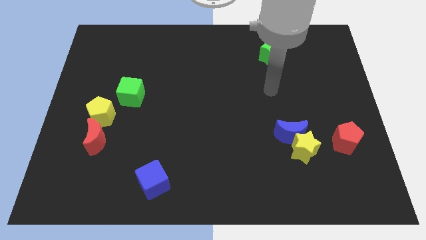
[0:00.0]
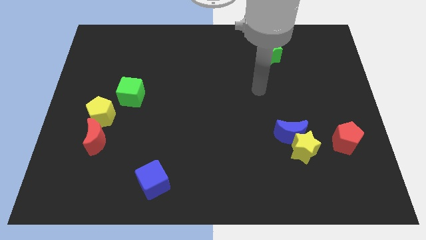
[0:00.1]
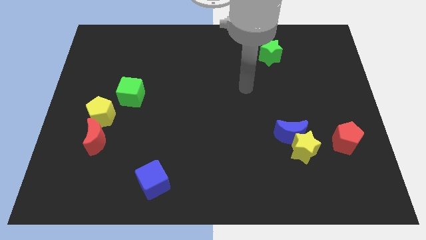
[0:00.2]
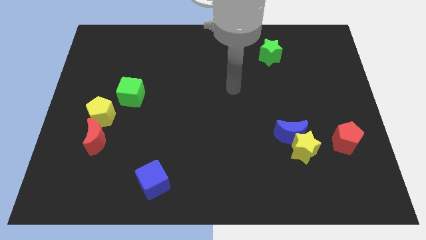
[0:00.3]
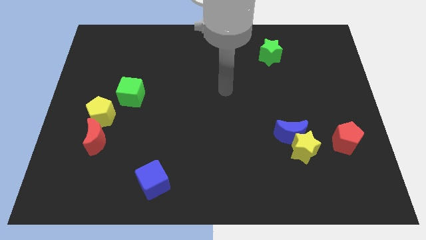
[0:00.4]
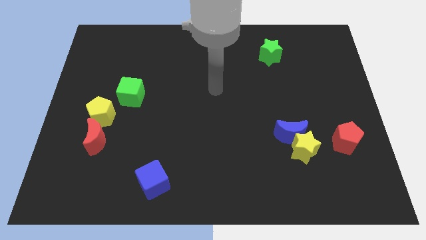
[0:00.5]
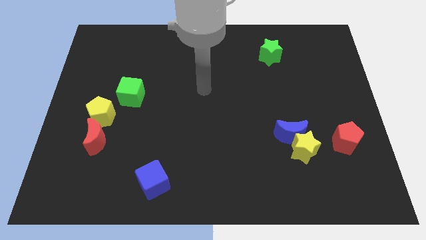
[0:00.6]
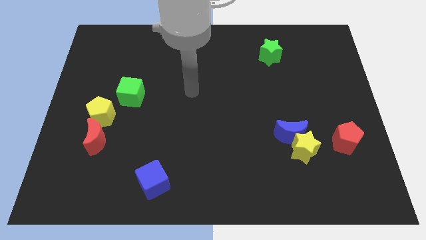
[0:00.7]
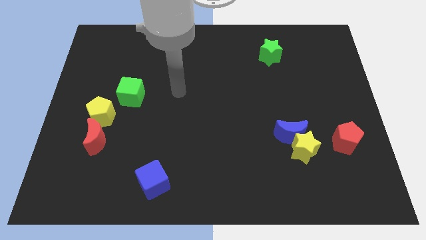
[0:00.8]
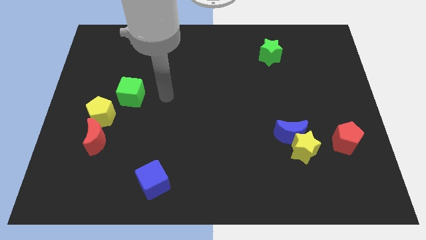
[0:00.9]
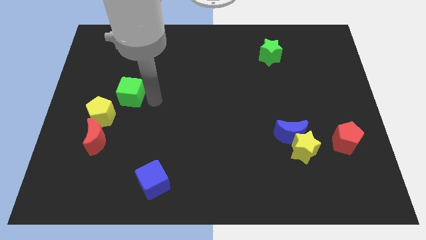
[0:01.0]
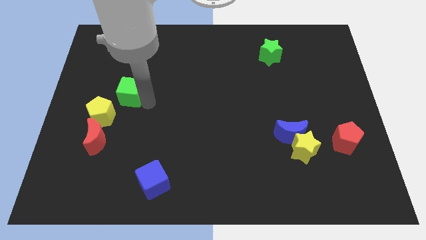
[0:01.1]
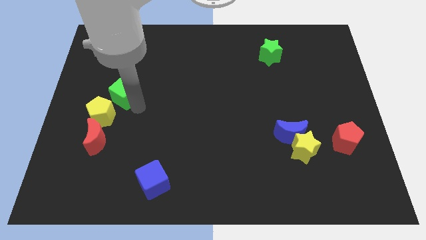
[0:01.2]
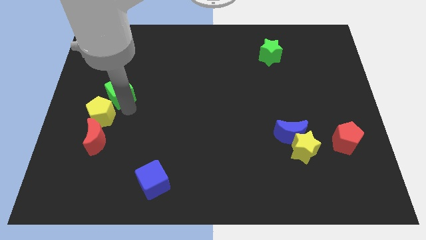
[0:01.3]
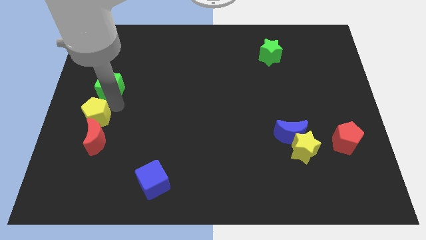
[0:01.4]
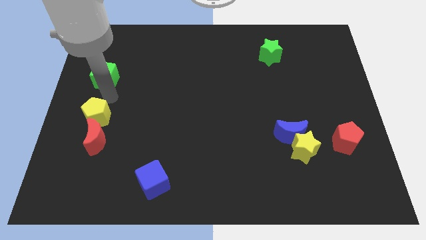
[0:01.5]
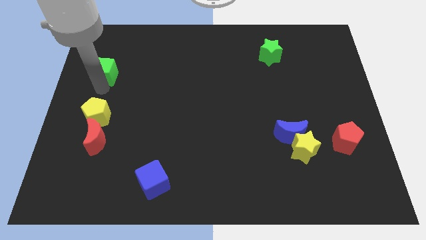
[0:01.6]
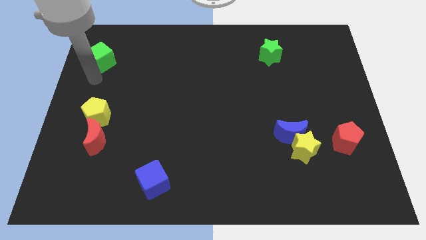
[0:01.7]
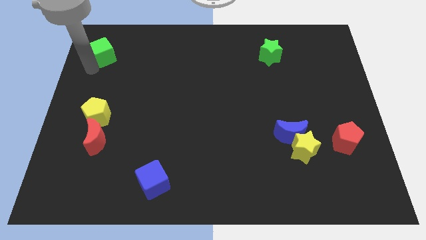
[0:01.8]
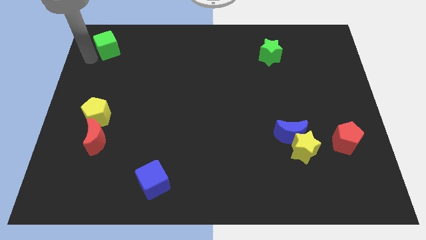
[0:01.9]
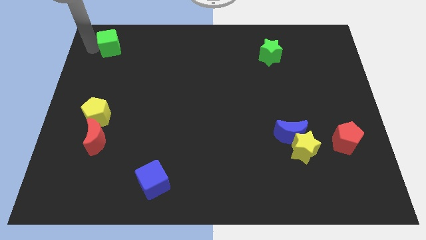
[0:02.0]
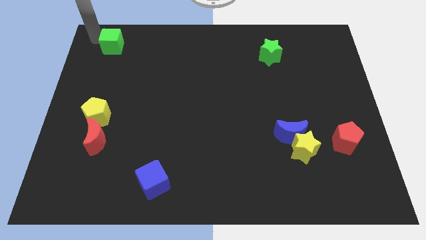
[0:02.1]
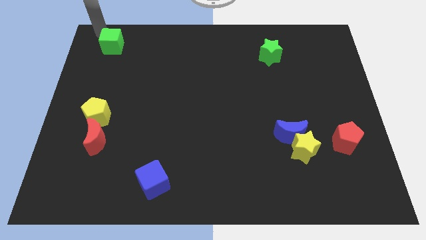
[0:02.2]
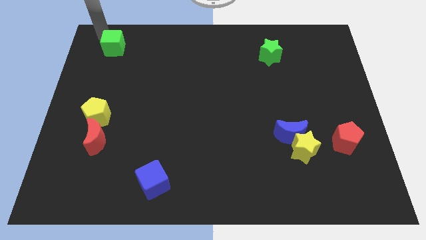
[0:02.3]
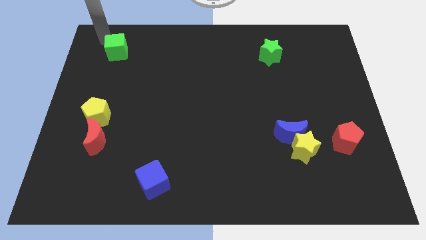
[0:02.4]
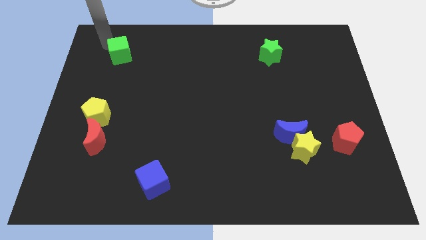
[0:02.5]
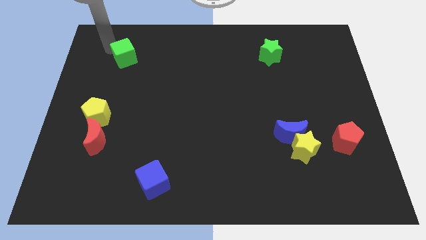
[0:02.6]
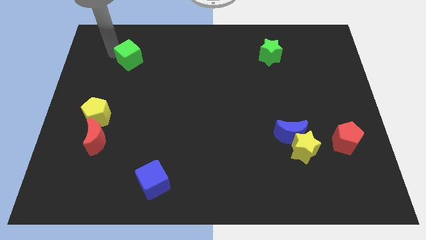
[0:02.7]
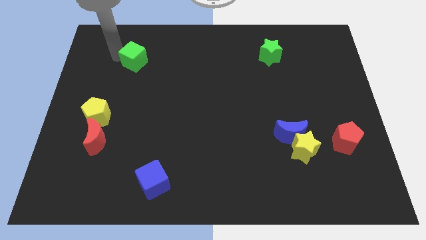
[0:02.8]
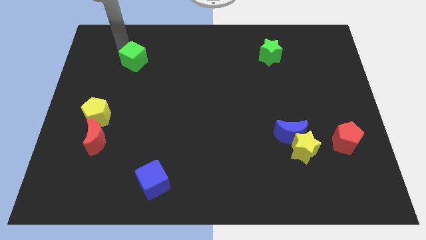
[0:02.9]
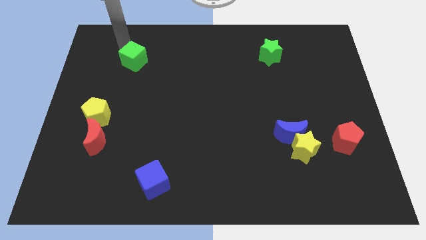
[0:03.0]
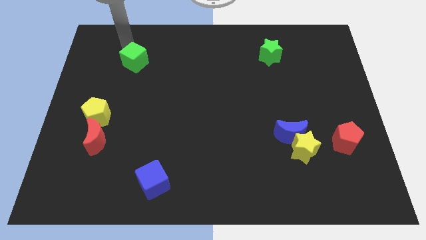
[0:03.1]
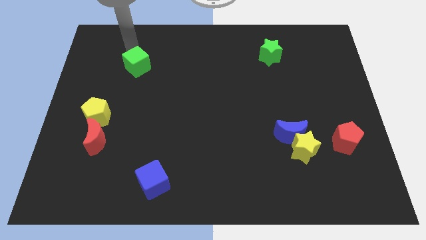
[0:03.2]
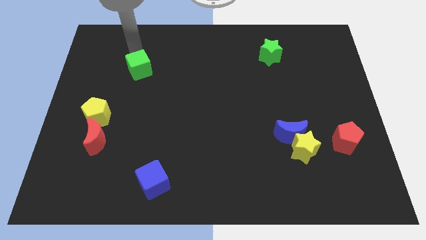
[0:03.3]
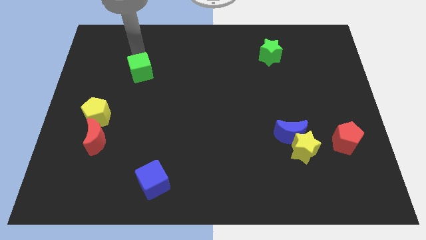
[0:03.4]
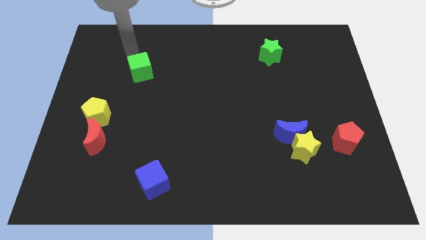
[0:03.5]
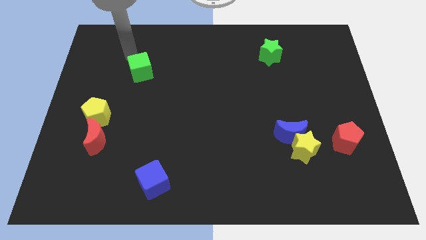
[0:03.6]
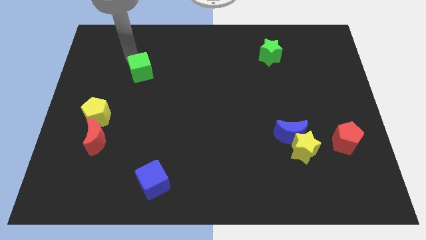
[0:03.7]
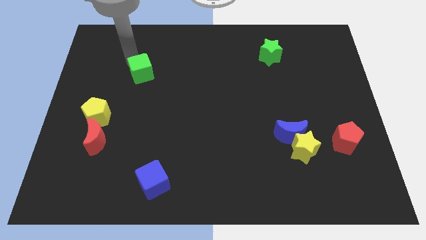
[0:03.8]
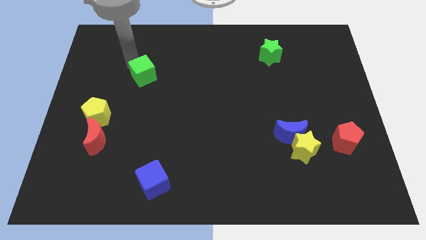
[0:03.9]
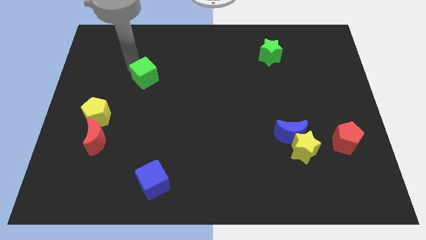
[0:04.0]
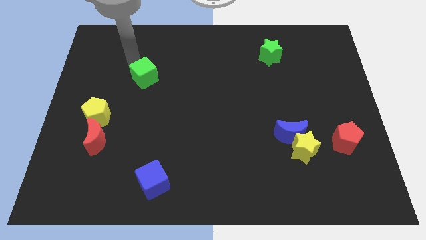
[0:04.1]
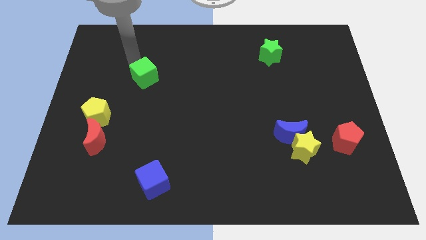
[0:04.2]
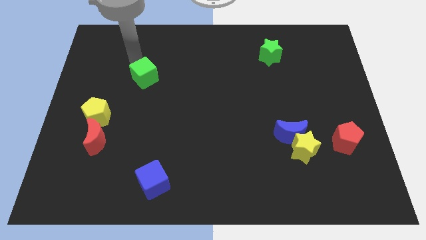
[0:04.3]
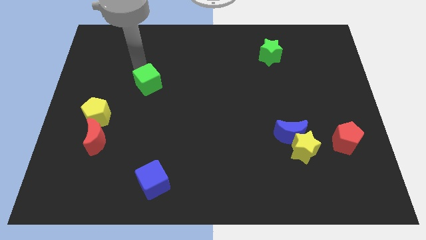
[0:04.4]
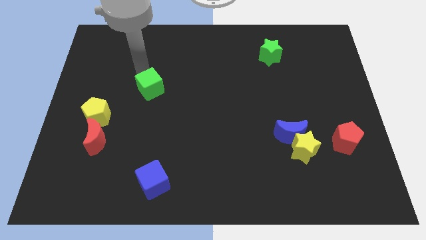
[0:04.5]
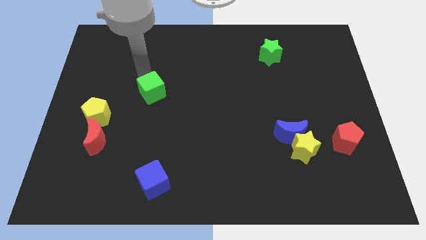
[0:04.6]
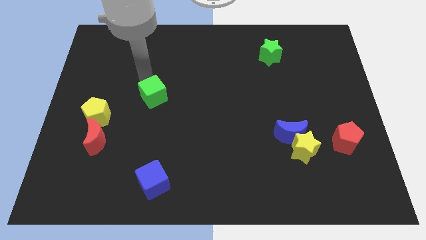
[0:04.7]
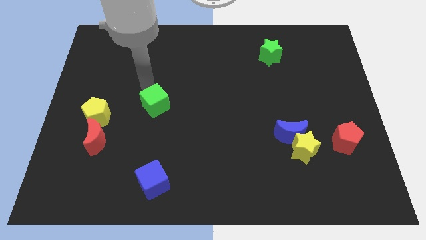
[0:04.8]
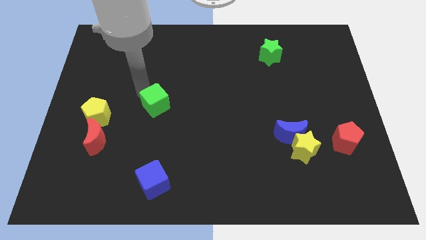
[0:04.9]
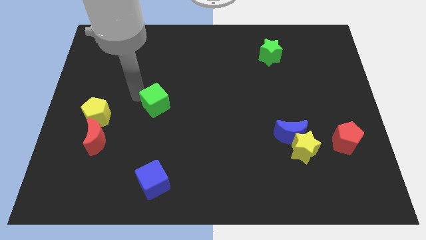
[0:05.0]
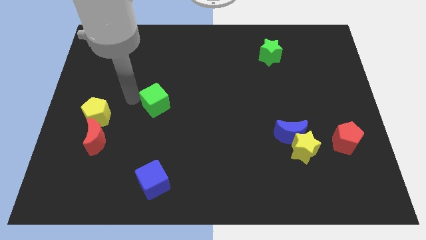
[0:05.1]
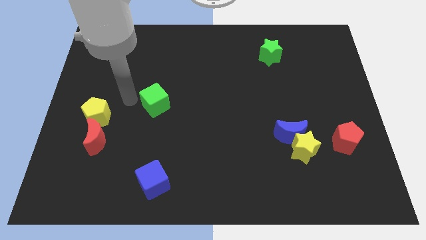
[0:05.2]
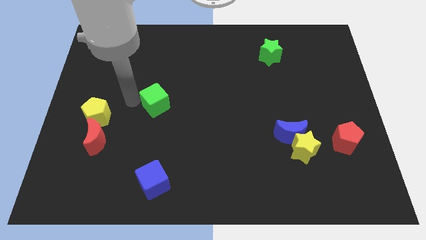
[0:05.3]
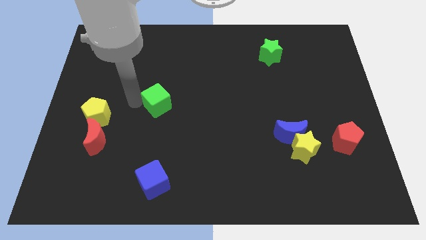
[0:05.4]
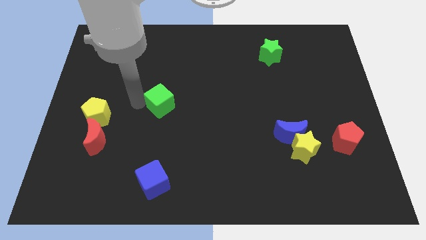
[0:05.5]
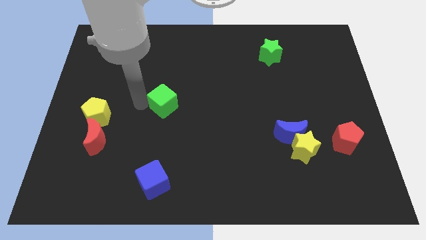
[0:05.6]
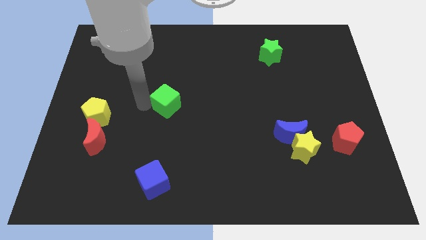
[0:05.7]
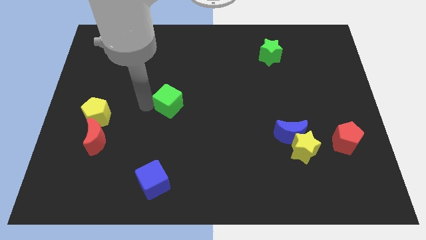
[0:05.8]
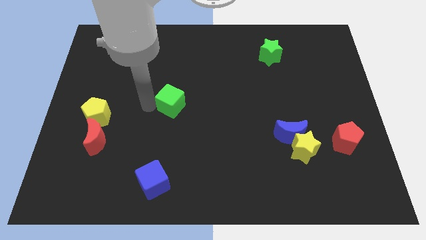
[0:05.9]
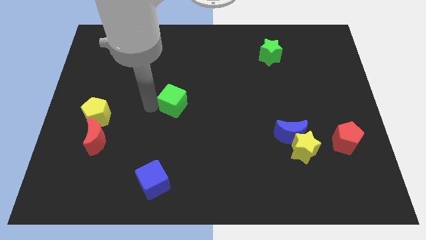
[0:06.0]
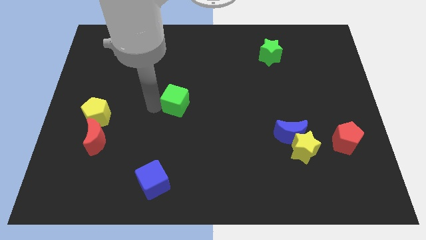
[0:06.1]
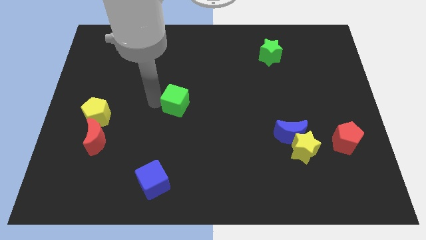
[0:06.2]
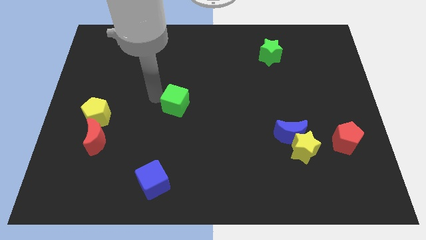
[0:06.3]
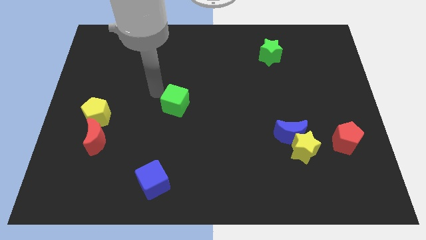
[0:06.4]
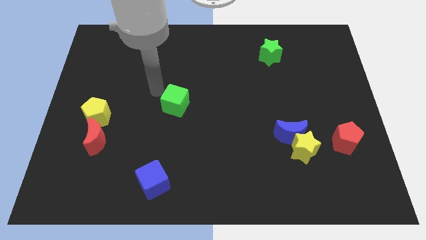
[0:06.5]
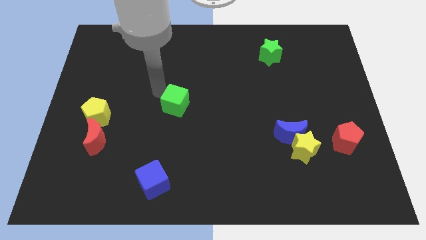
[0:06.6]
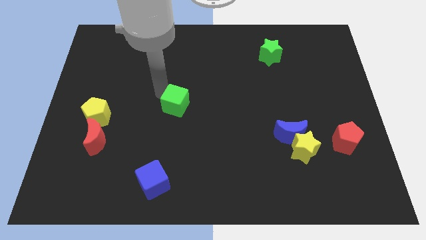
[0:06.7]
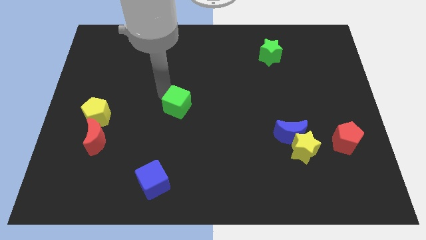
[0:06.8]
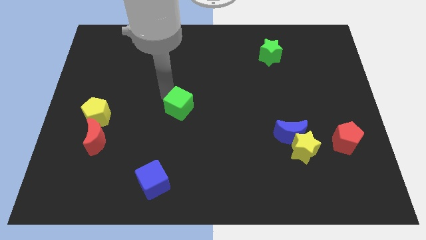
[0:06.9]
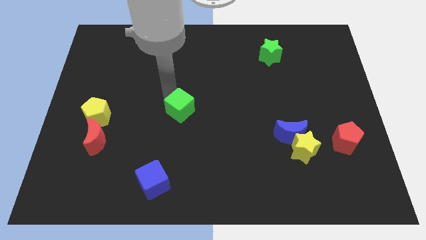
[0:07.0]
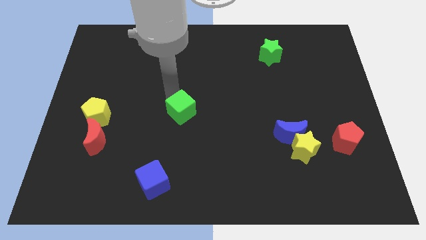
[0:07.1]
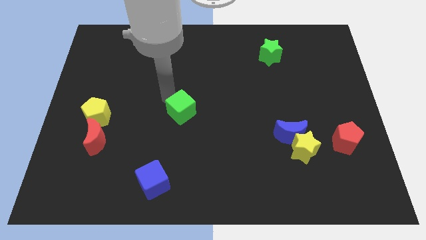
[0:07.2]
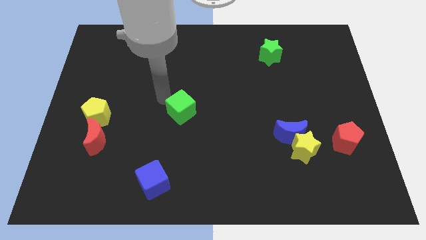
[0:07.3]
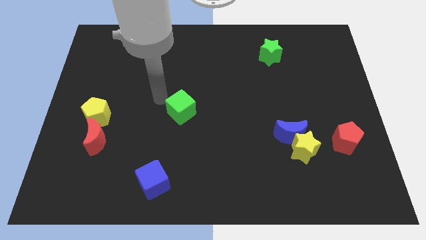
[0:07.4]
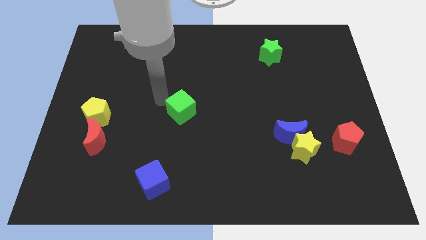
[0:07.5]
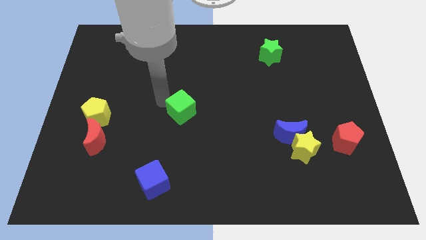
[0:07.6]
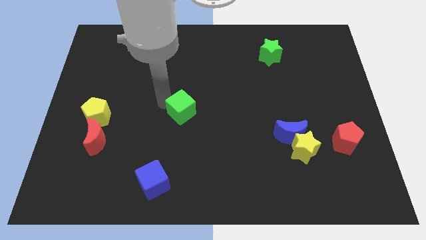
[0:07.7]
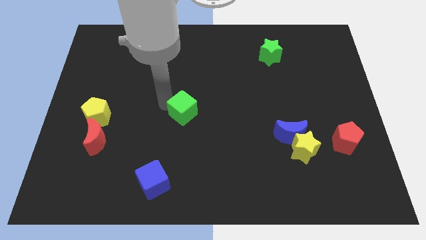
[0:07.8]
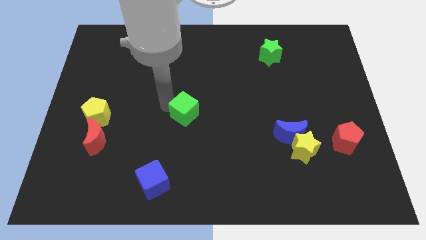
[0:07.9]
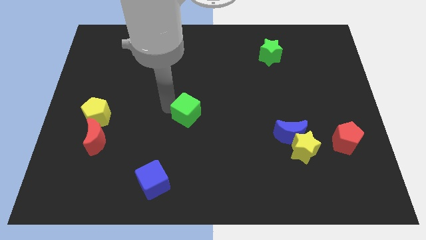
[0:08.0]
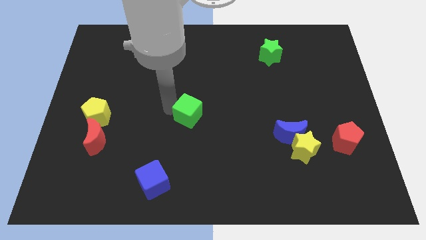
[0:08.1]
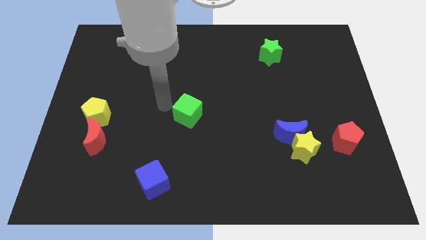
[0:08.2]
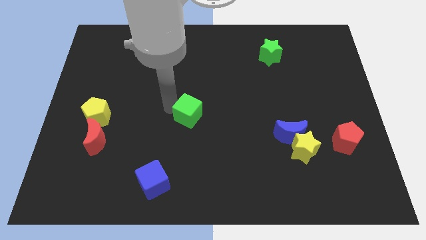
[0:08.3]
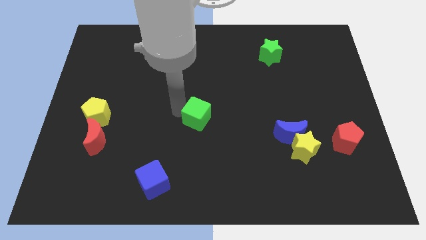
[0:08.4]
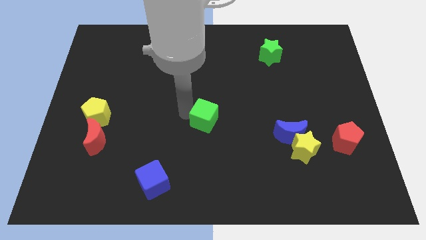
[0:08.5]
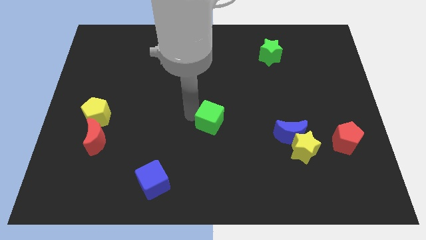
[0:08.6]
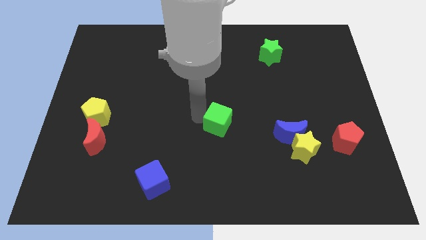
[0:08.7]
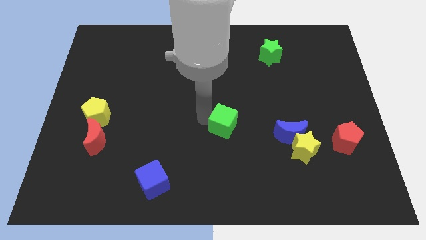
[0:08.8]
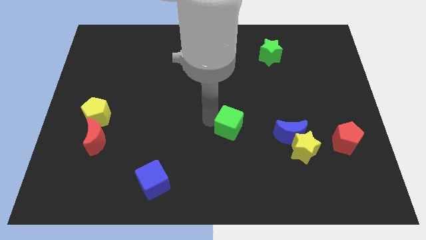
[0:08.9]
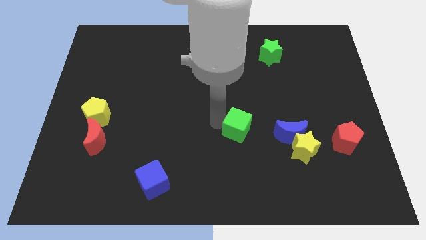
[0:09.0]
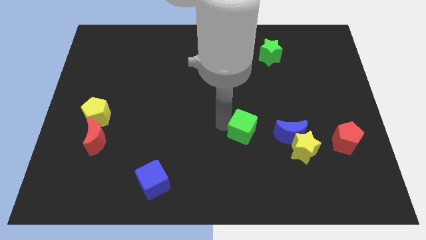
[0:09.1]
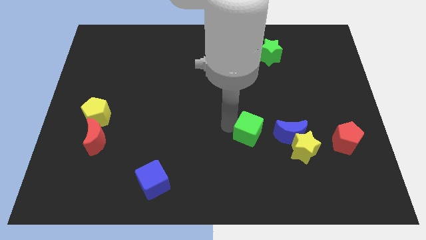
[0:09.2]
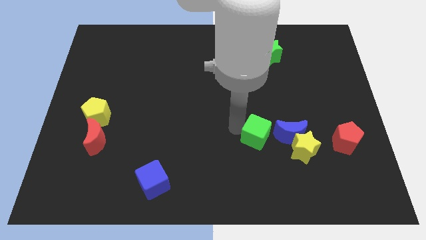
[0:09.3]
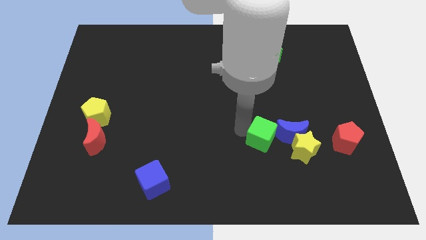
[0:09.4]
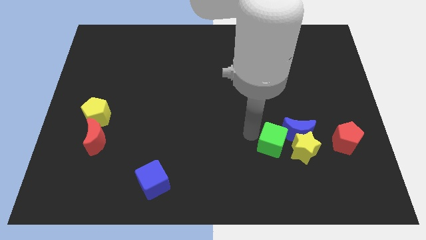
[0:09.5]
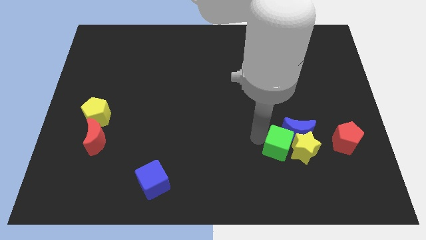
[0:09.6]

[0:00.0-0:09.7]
move the green cube close to the yellow star
